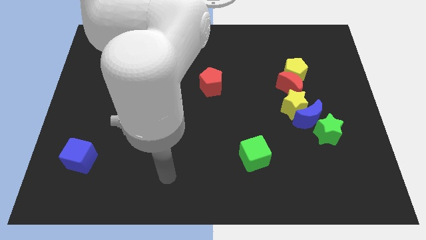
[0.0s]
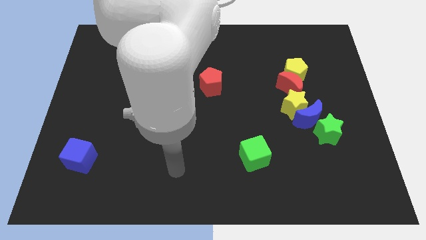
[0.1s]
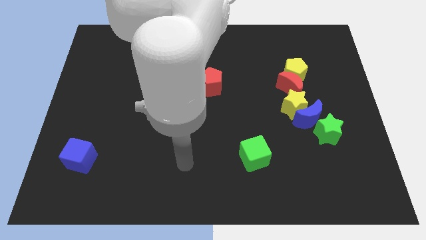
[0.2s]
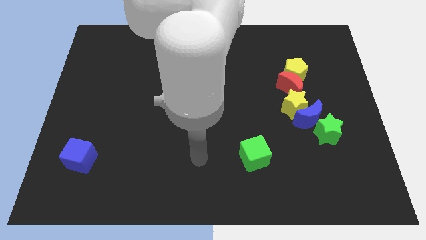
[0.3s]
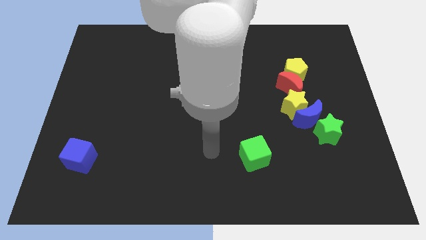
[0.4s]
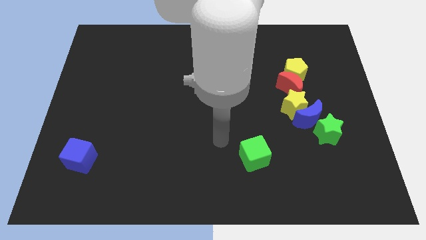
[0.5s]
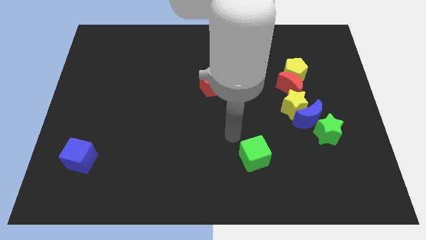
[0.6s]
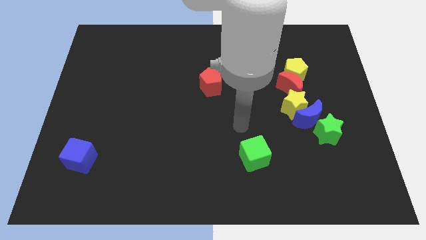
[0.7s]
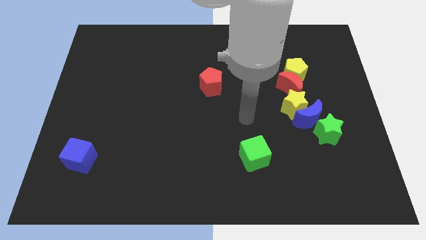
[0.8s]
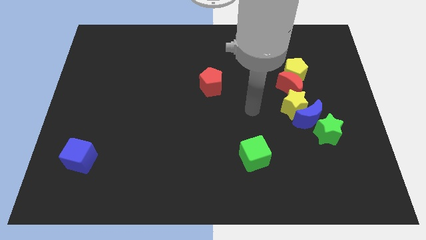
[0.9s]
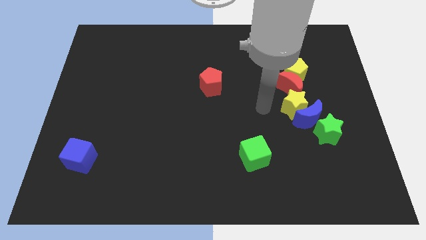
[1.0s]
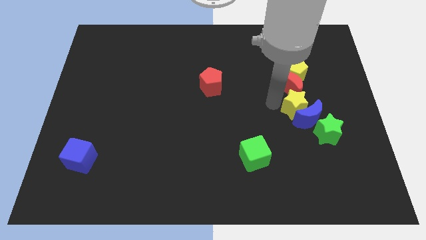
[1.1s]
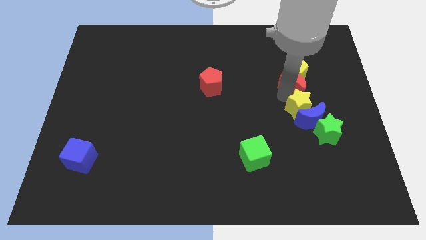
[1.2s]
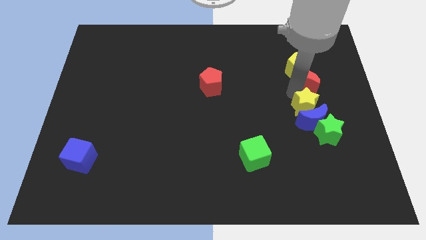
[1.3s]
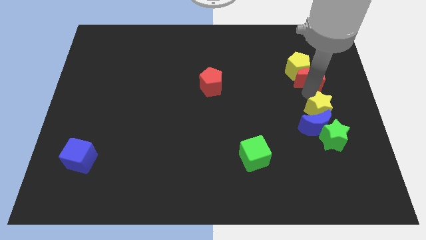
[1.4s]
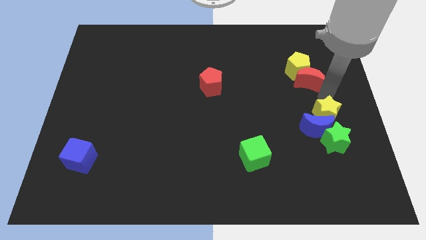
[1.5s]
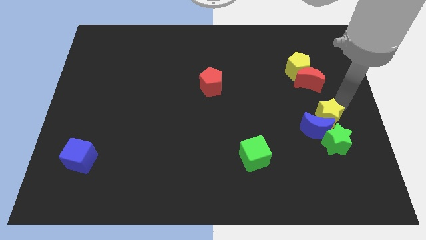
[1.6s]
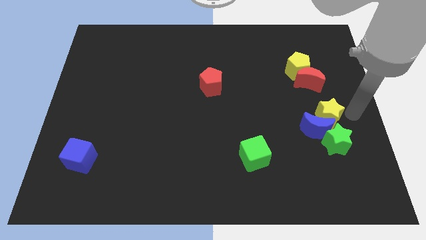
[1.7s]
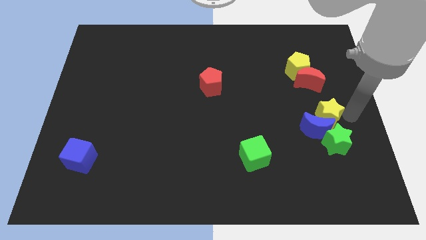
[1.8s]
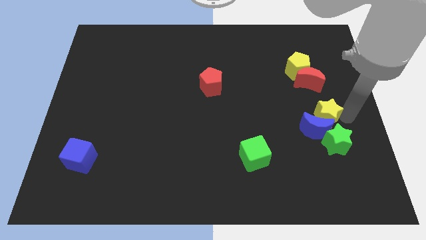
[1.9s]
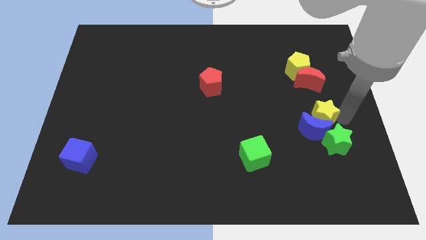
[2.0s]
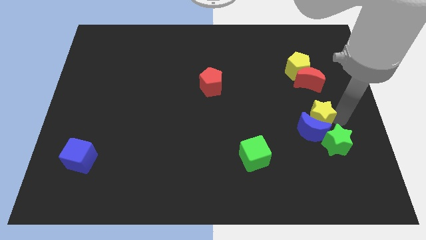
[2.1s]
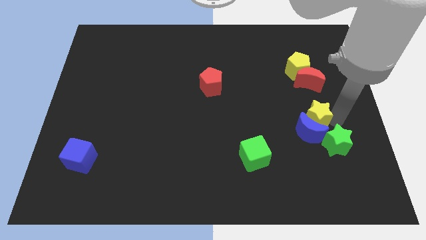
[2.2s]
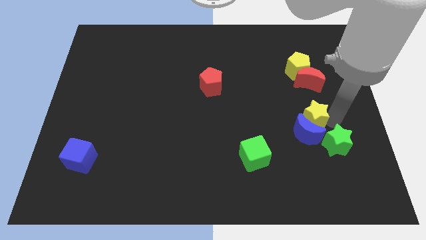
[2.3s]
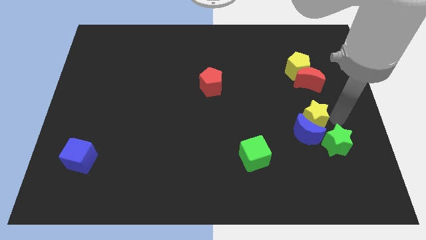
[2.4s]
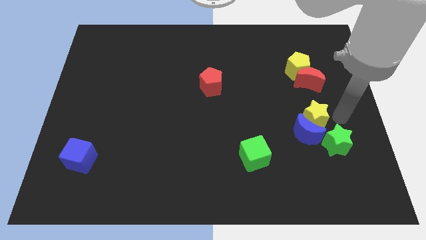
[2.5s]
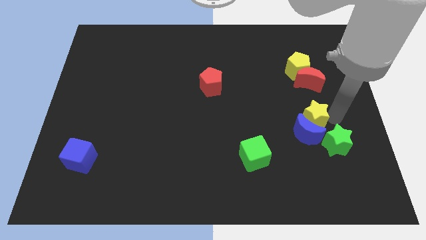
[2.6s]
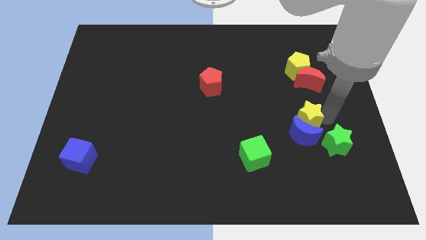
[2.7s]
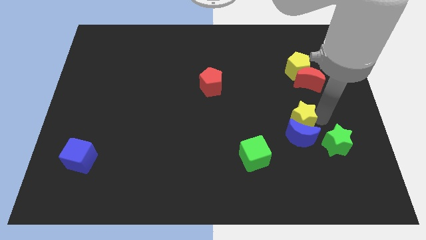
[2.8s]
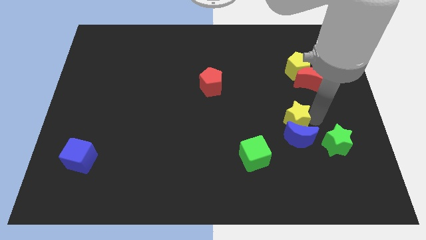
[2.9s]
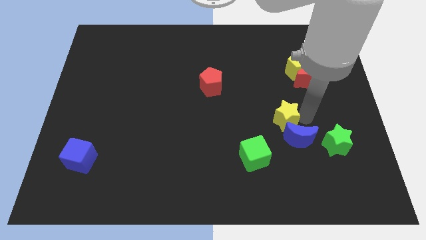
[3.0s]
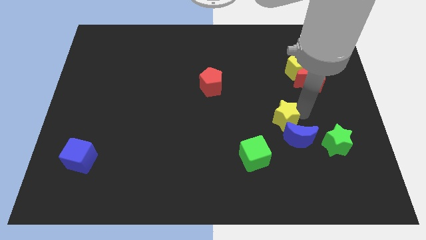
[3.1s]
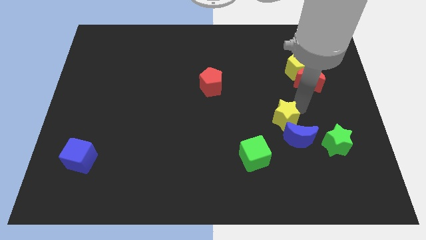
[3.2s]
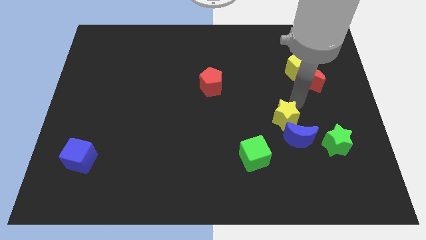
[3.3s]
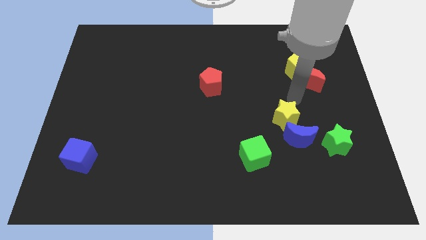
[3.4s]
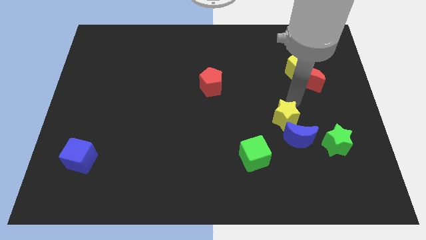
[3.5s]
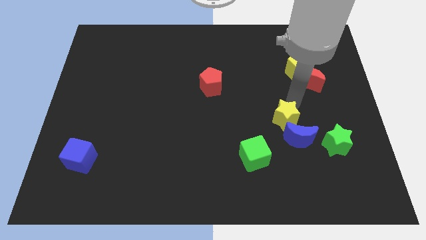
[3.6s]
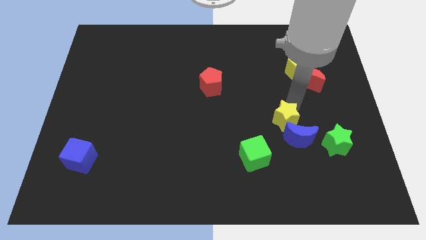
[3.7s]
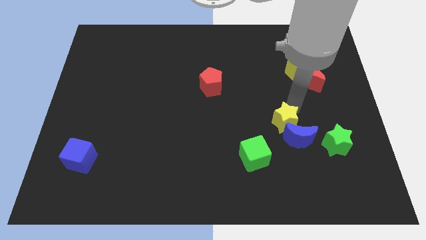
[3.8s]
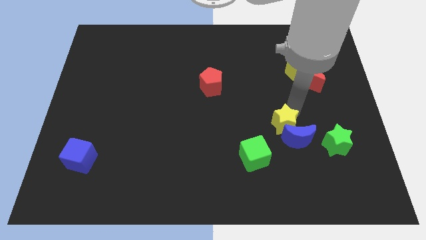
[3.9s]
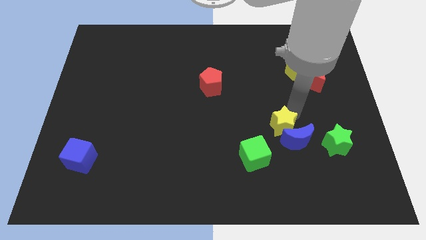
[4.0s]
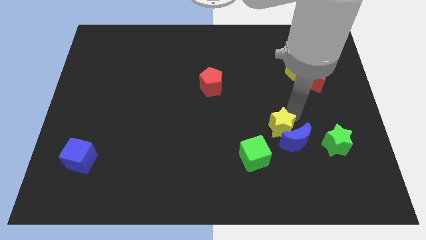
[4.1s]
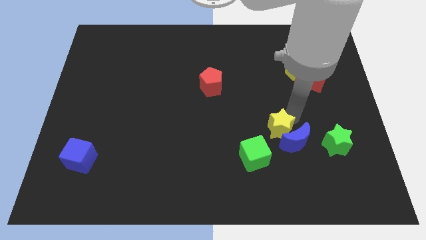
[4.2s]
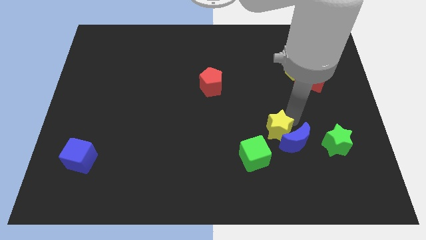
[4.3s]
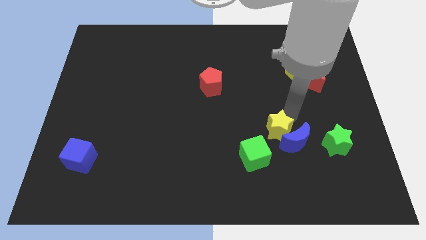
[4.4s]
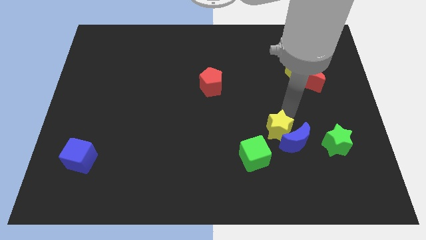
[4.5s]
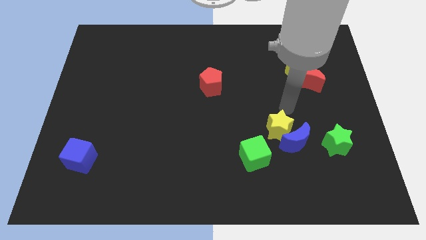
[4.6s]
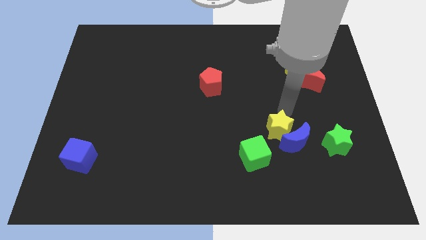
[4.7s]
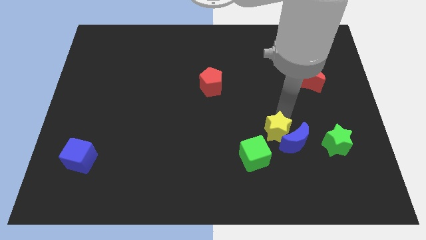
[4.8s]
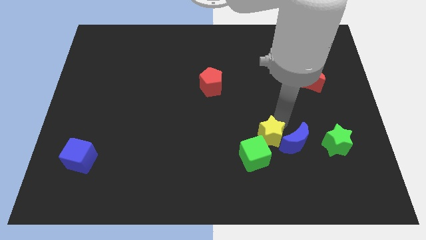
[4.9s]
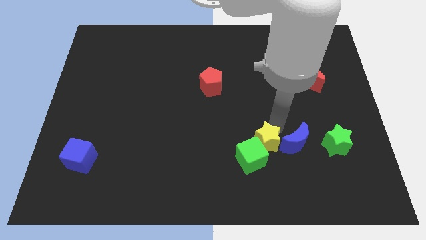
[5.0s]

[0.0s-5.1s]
slide the yellow star next to the green cube

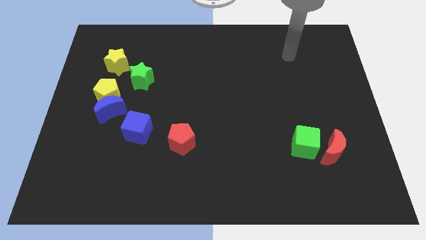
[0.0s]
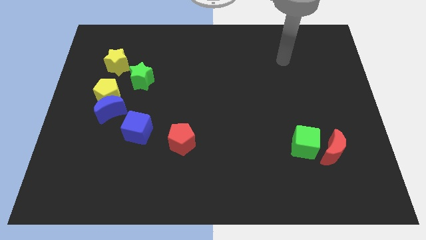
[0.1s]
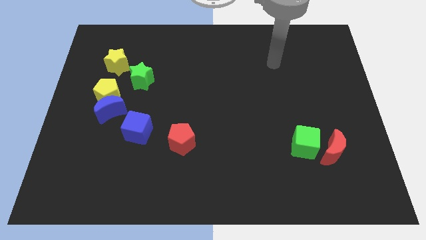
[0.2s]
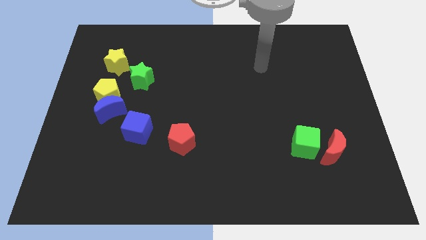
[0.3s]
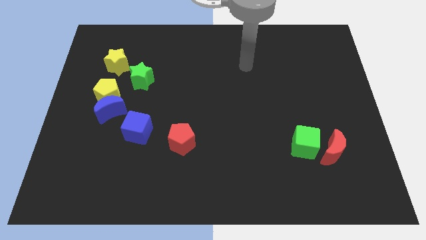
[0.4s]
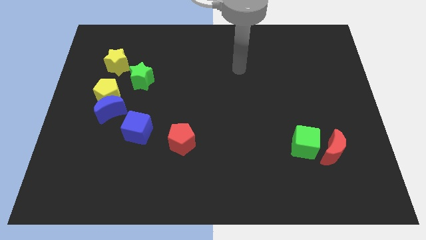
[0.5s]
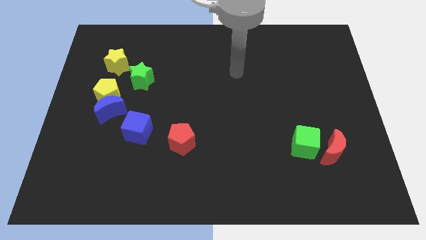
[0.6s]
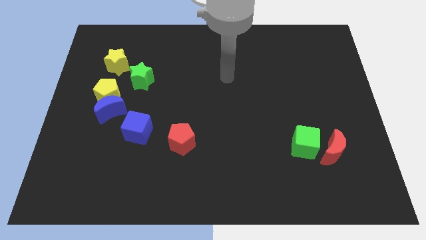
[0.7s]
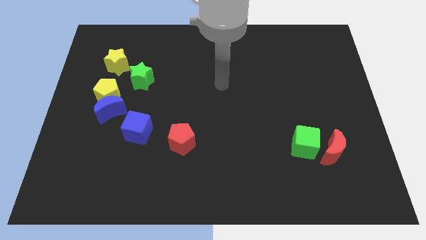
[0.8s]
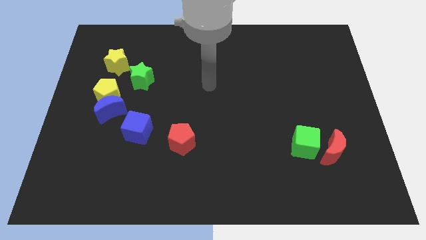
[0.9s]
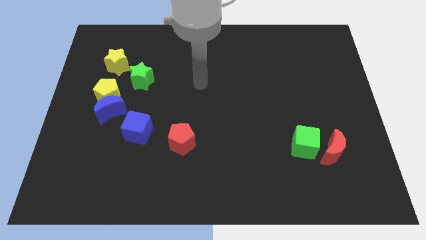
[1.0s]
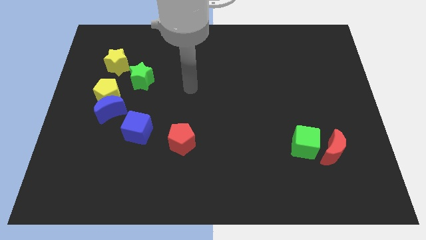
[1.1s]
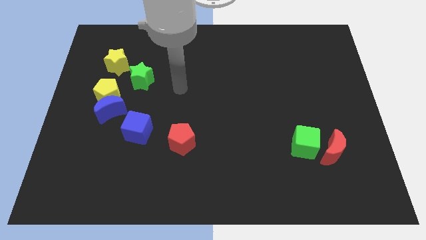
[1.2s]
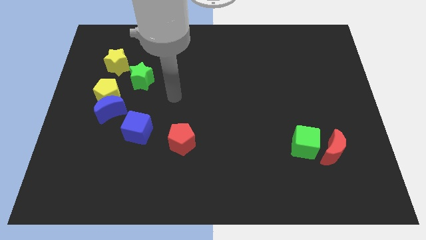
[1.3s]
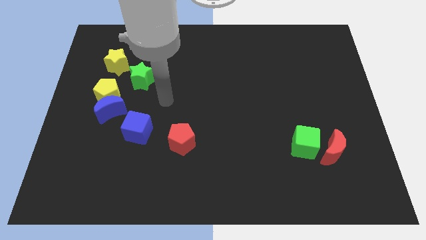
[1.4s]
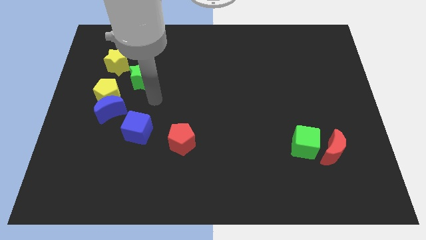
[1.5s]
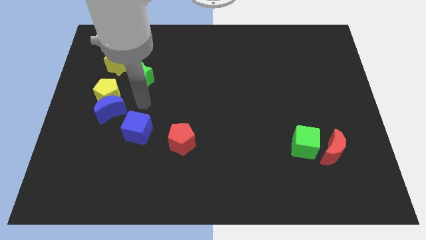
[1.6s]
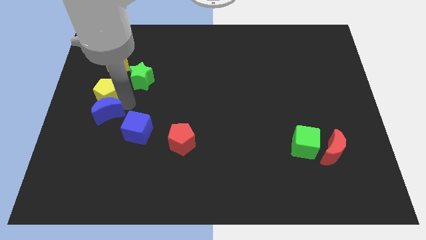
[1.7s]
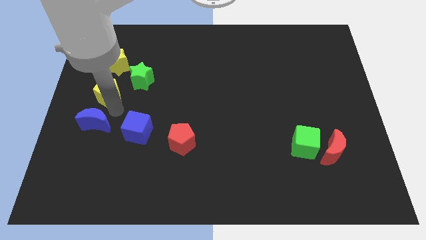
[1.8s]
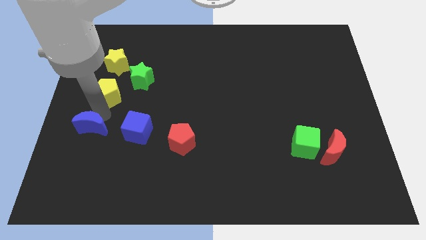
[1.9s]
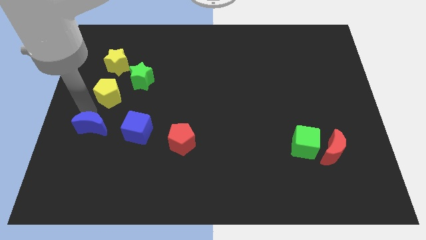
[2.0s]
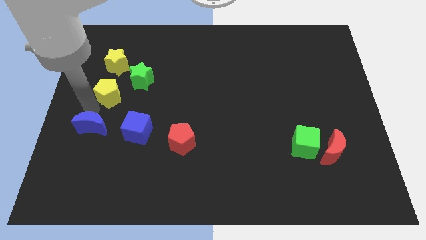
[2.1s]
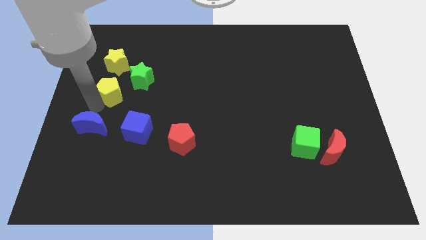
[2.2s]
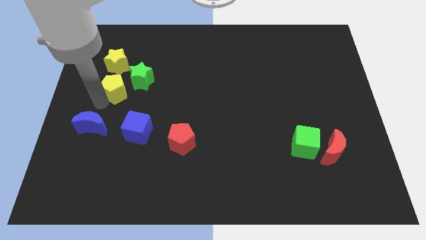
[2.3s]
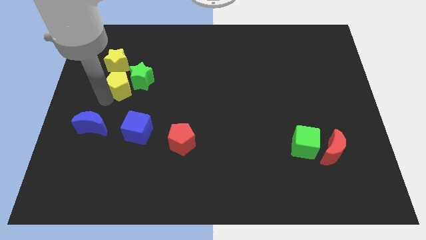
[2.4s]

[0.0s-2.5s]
move the yellow pentagon next to the green star
